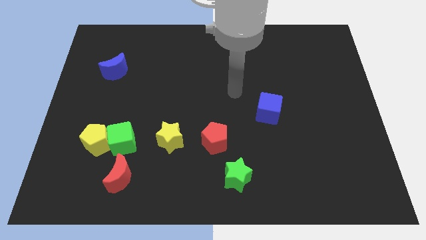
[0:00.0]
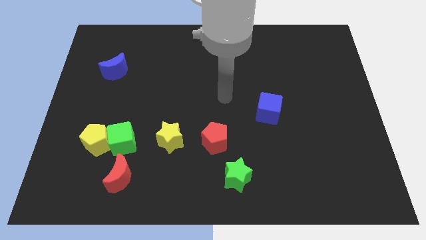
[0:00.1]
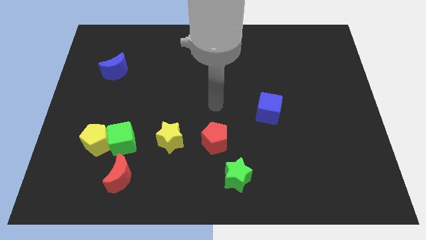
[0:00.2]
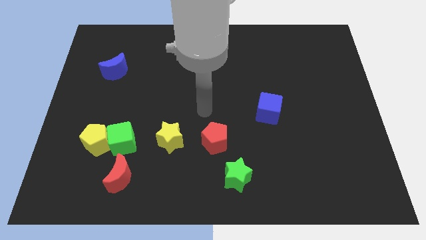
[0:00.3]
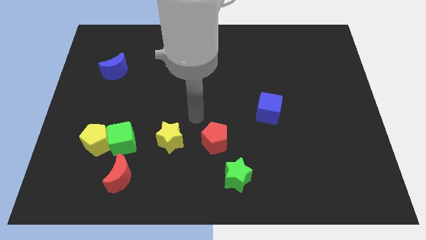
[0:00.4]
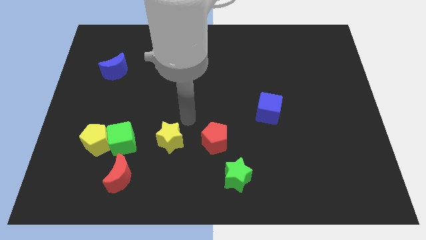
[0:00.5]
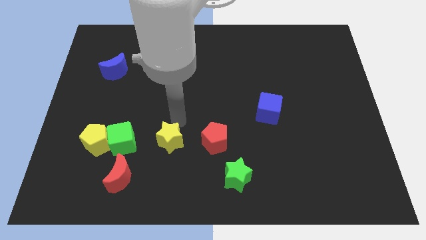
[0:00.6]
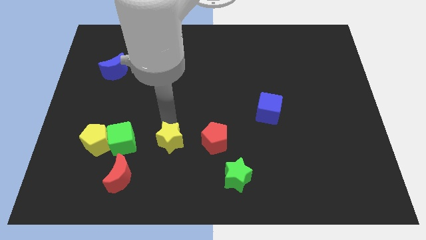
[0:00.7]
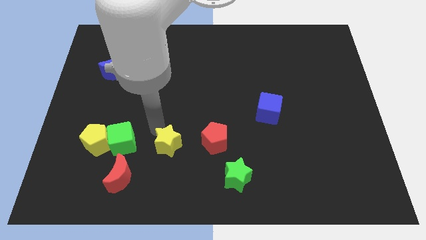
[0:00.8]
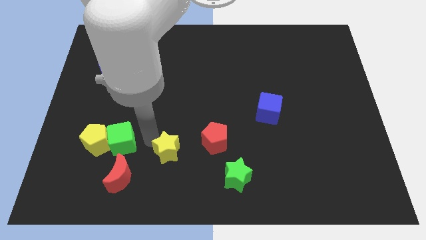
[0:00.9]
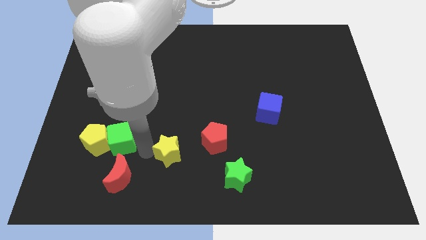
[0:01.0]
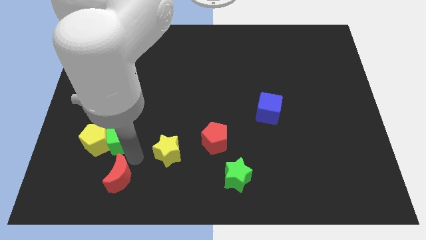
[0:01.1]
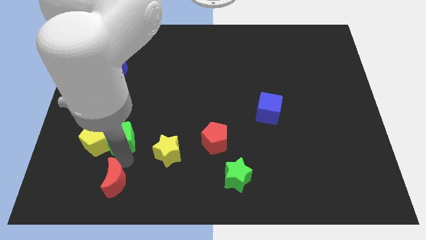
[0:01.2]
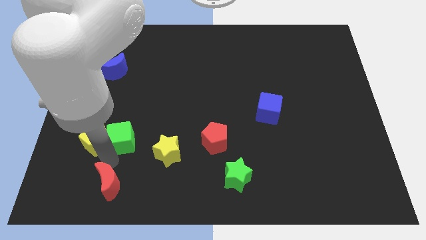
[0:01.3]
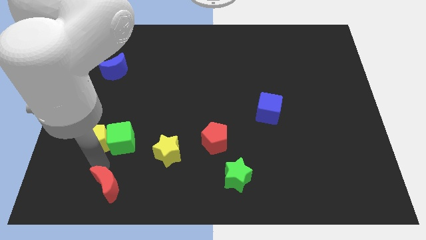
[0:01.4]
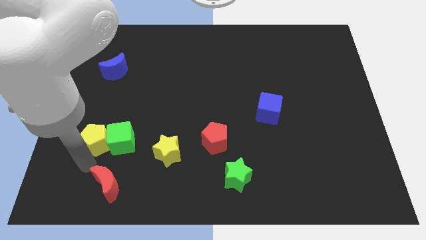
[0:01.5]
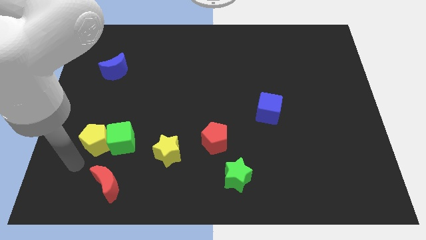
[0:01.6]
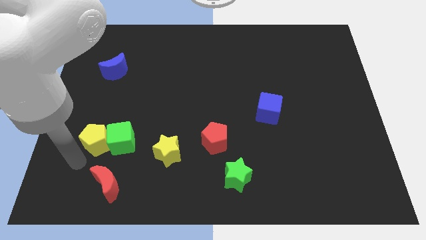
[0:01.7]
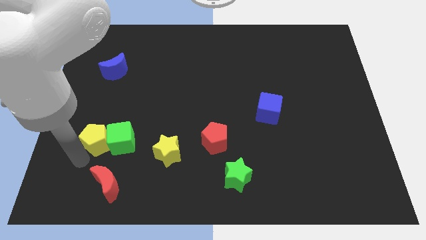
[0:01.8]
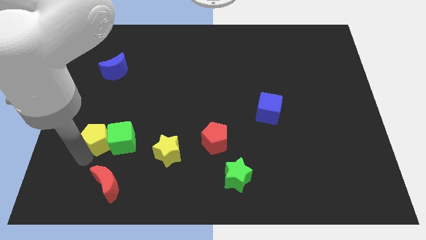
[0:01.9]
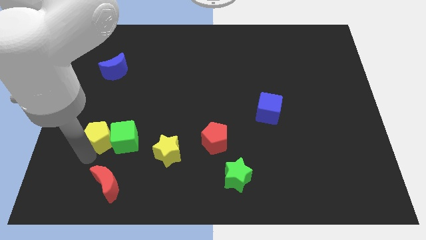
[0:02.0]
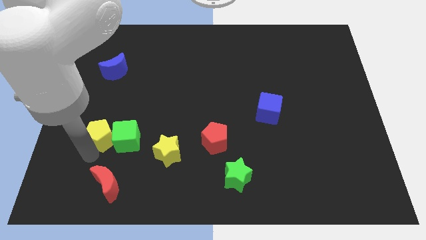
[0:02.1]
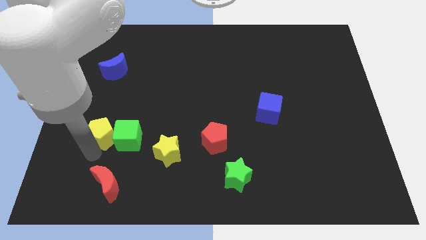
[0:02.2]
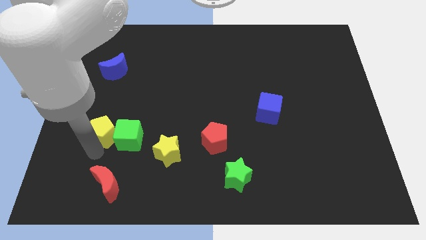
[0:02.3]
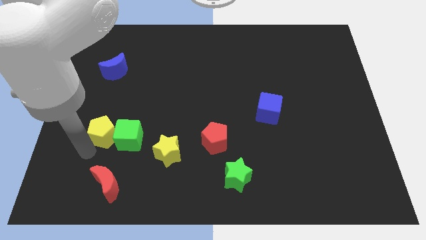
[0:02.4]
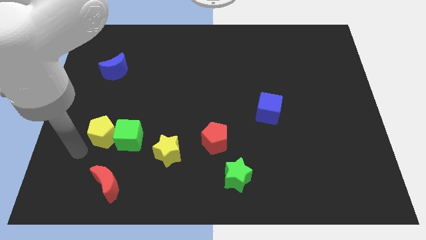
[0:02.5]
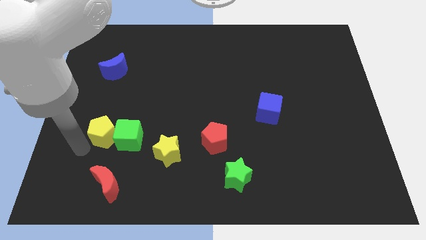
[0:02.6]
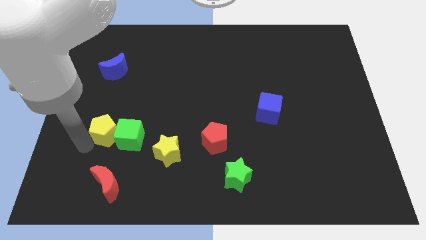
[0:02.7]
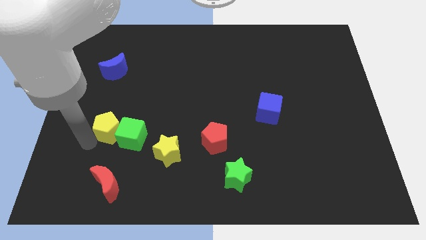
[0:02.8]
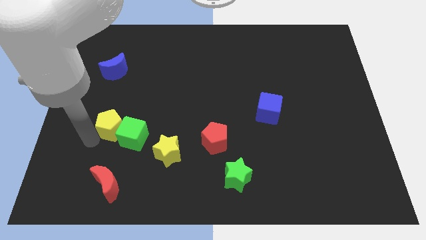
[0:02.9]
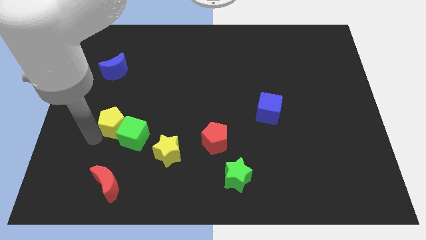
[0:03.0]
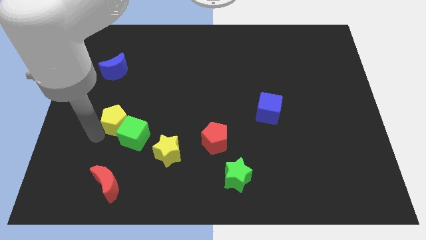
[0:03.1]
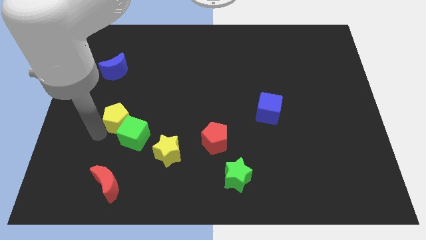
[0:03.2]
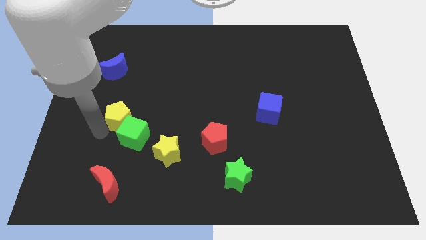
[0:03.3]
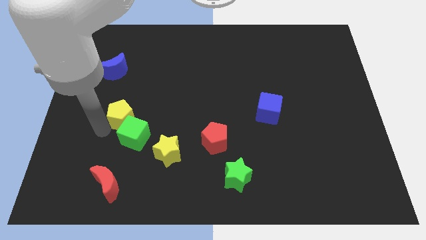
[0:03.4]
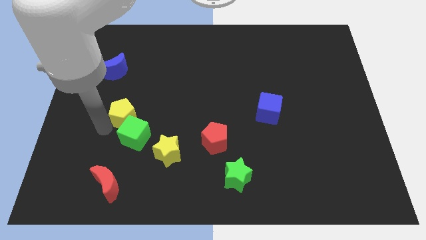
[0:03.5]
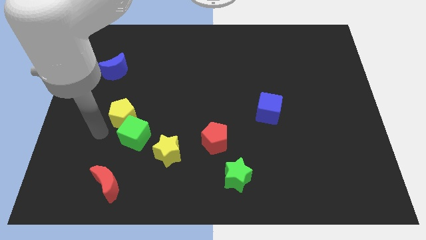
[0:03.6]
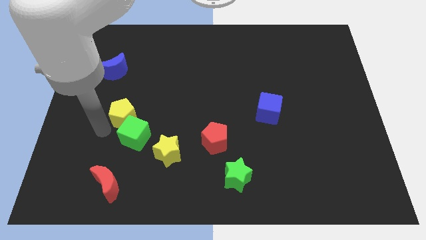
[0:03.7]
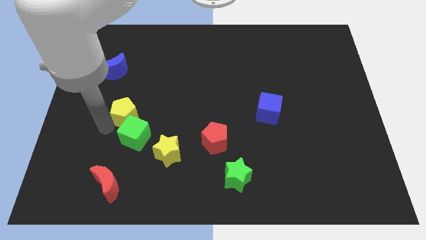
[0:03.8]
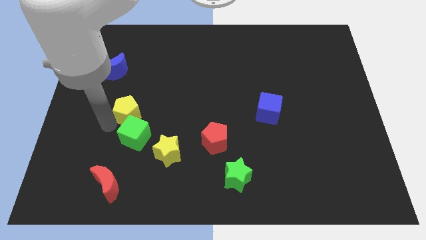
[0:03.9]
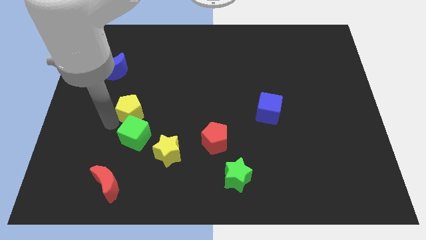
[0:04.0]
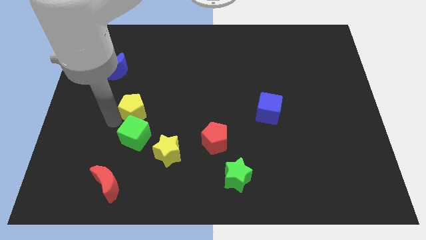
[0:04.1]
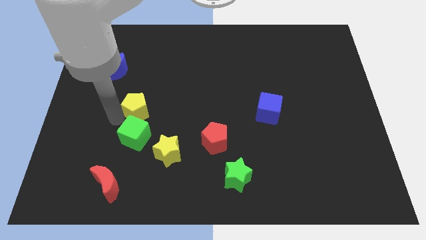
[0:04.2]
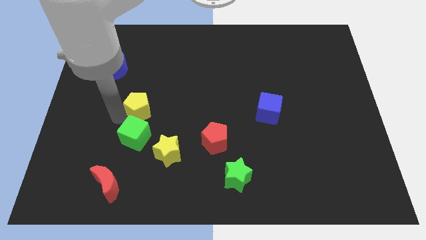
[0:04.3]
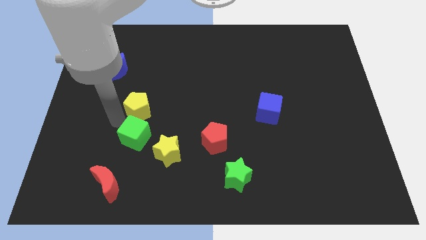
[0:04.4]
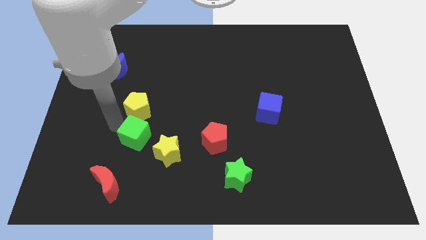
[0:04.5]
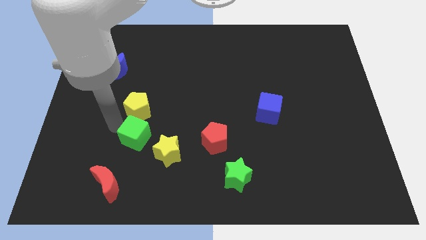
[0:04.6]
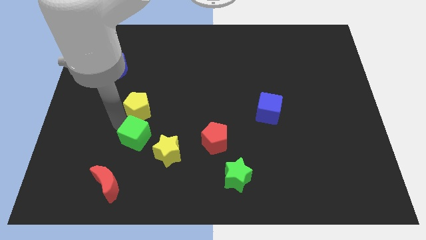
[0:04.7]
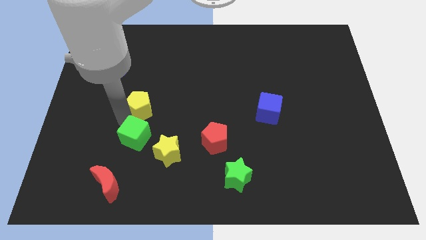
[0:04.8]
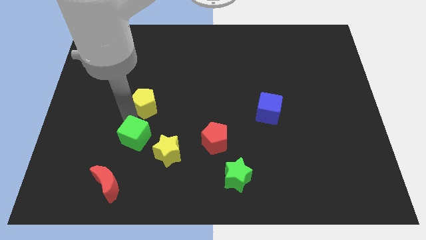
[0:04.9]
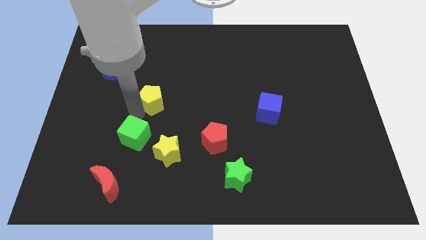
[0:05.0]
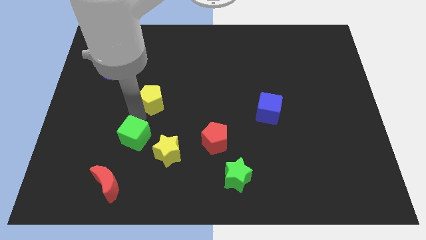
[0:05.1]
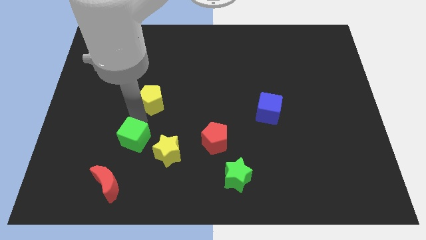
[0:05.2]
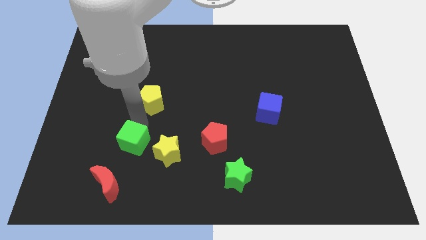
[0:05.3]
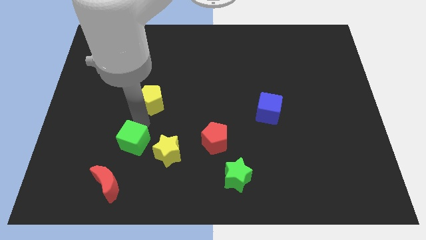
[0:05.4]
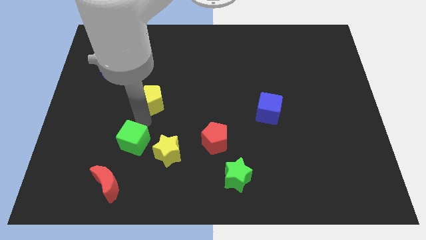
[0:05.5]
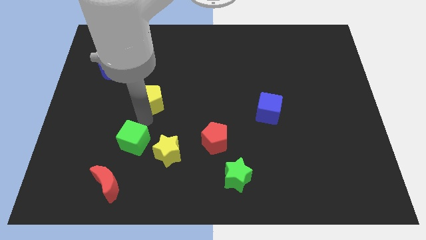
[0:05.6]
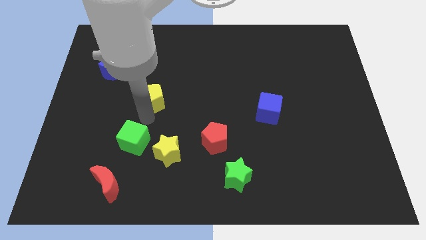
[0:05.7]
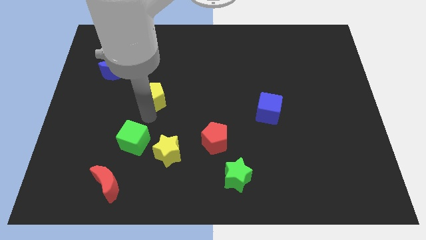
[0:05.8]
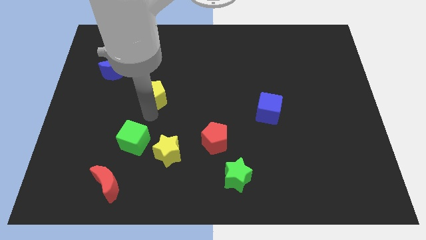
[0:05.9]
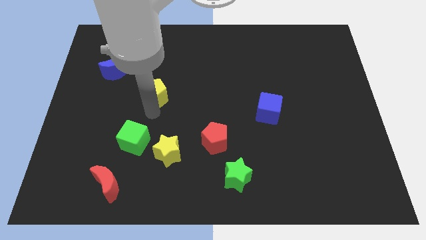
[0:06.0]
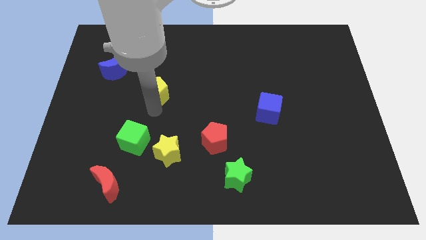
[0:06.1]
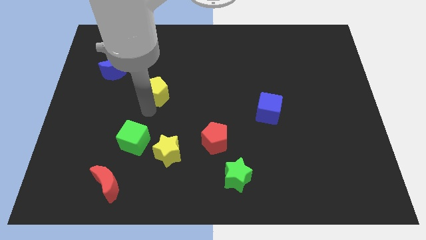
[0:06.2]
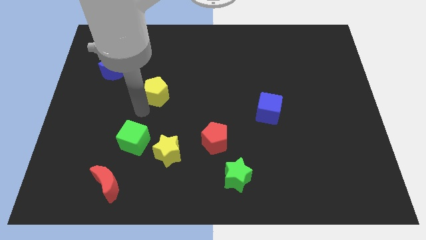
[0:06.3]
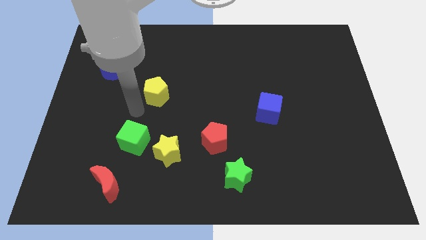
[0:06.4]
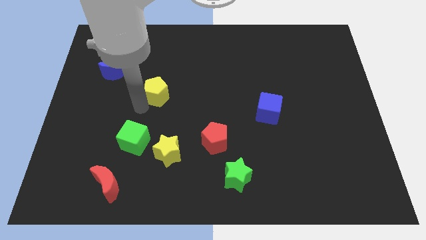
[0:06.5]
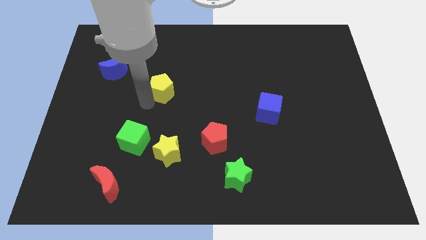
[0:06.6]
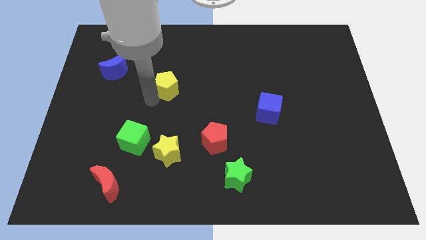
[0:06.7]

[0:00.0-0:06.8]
move the yellow pentagon diagonally upwards and to the right

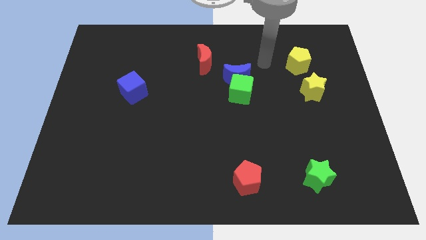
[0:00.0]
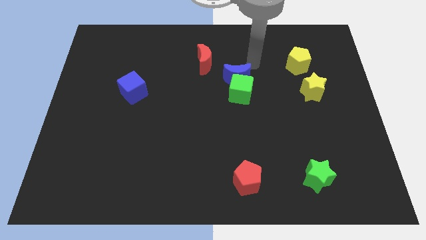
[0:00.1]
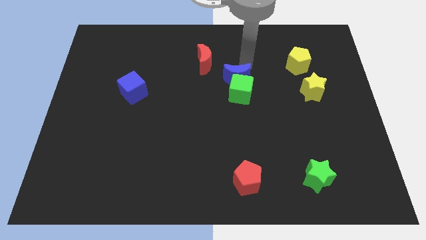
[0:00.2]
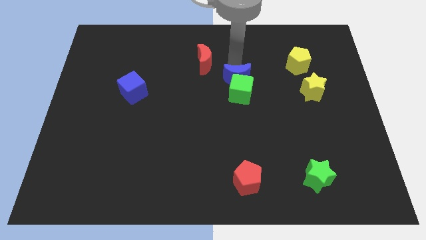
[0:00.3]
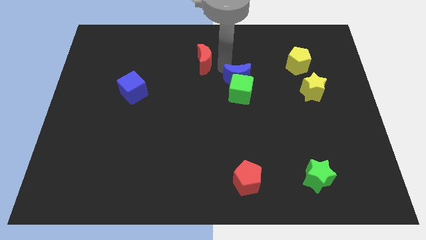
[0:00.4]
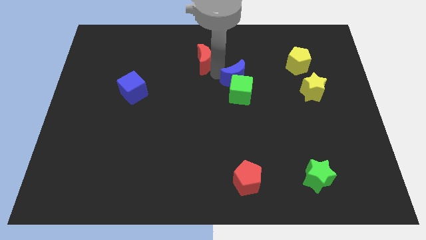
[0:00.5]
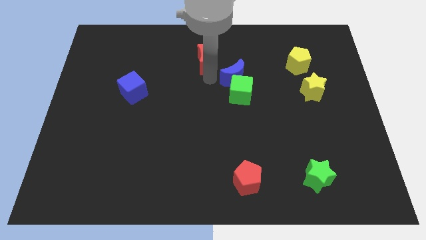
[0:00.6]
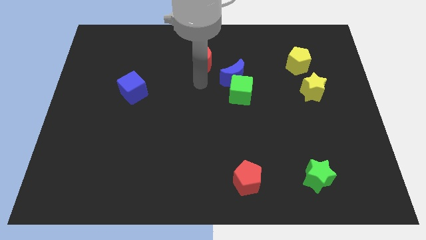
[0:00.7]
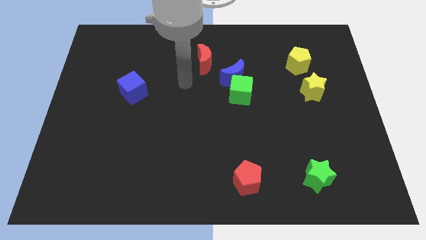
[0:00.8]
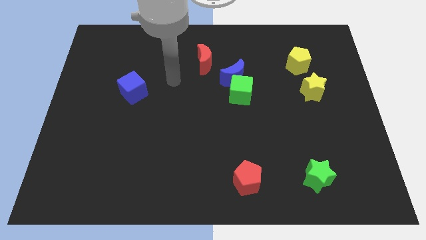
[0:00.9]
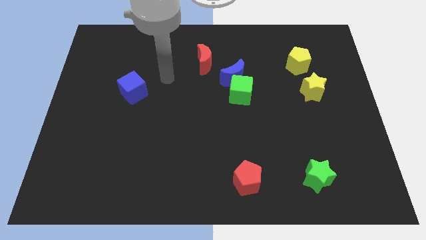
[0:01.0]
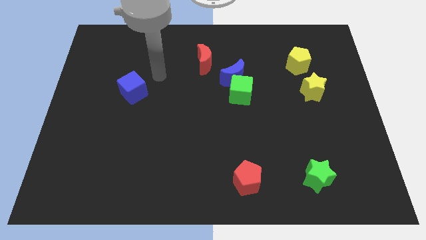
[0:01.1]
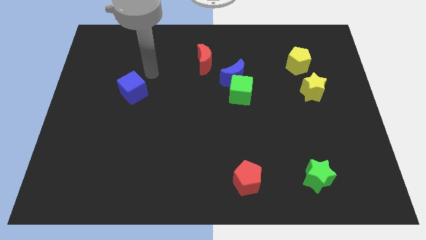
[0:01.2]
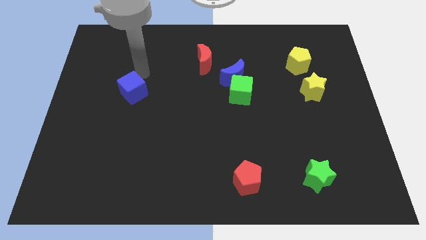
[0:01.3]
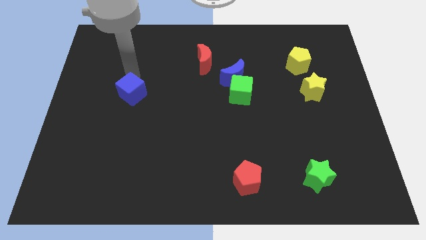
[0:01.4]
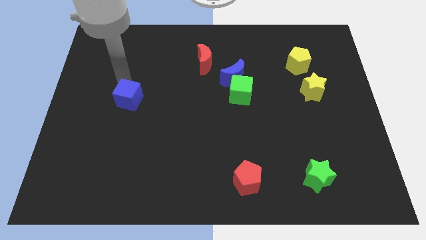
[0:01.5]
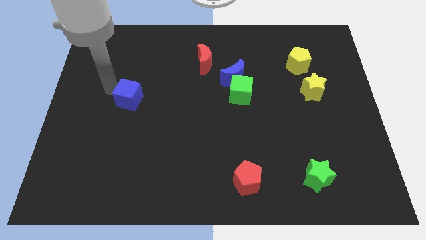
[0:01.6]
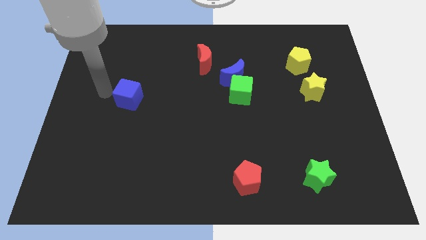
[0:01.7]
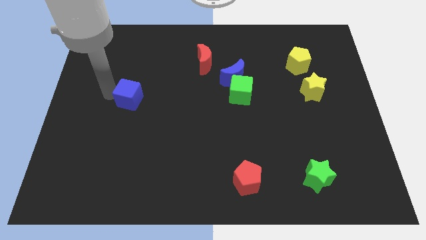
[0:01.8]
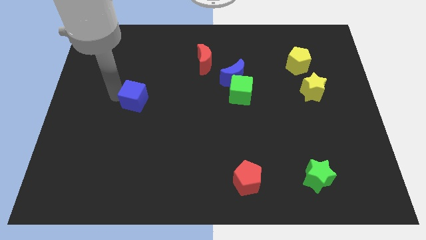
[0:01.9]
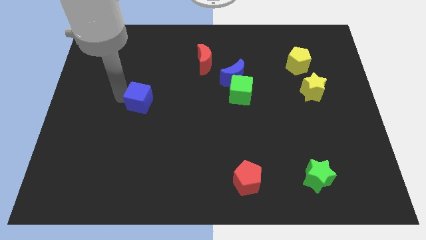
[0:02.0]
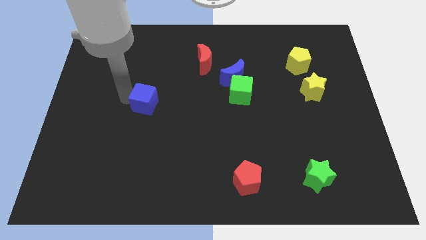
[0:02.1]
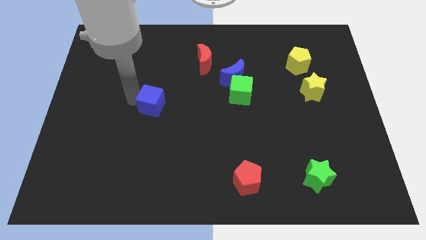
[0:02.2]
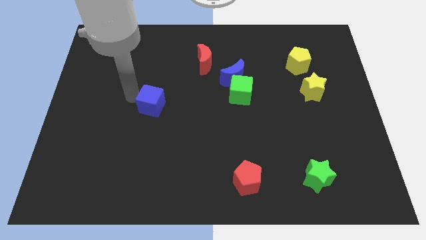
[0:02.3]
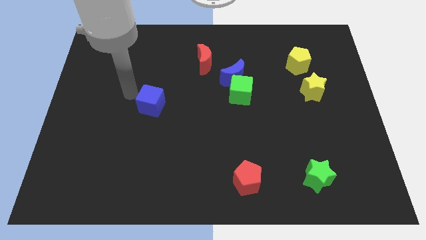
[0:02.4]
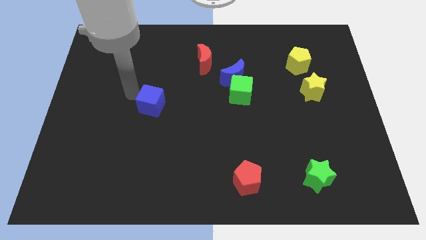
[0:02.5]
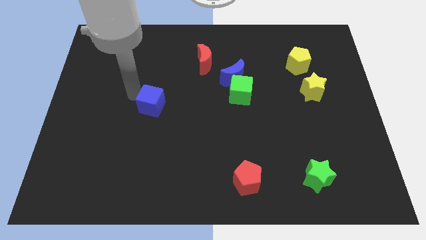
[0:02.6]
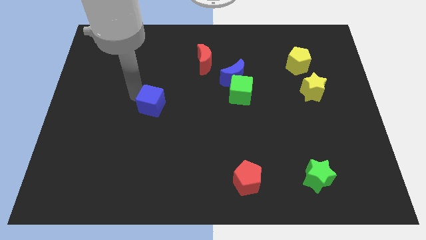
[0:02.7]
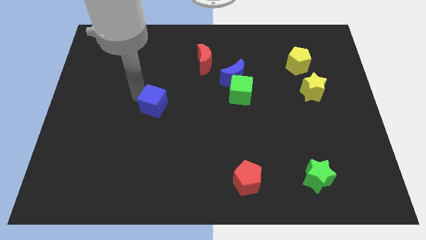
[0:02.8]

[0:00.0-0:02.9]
slide the blue cube diagonally downwards and right a little bit
